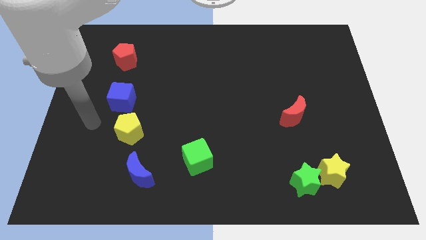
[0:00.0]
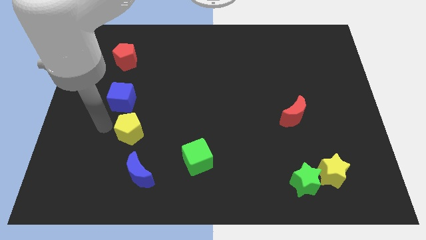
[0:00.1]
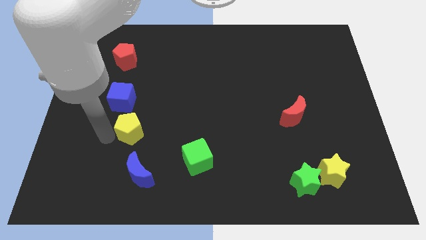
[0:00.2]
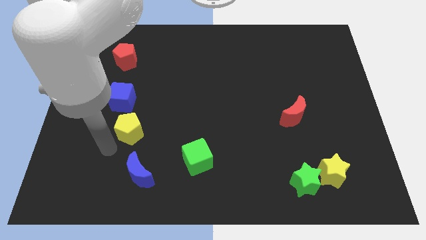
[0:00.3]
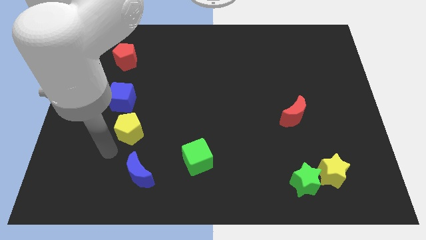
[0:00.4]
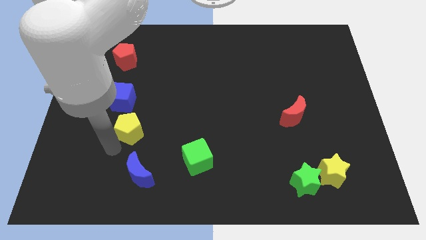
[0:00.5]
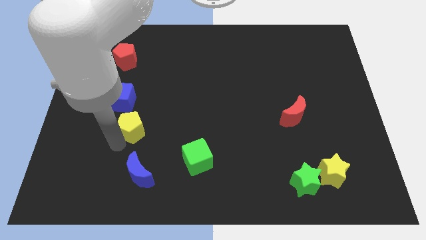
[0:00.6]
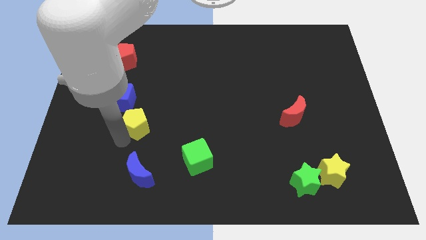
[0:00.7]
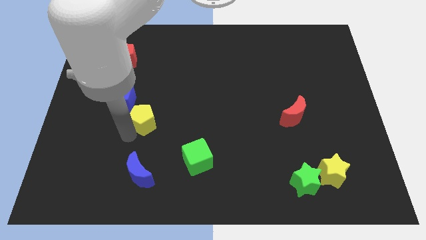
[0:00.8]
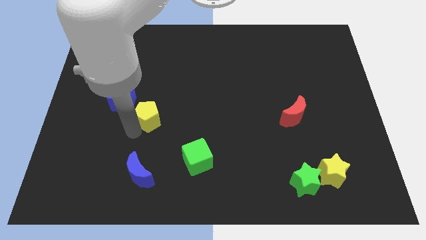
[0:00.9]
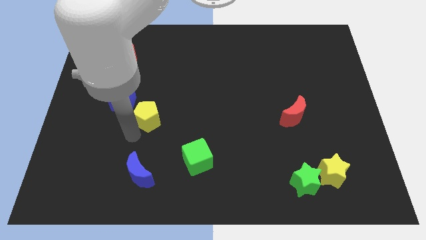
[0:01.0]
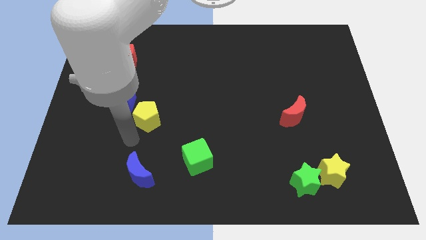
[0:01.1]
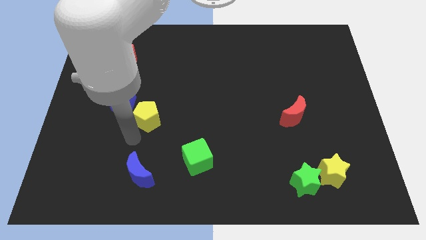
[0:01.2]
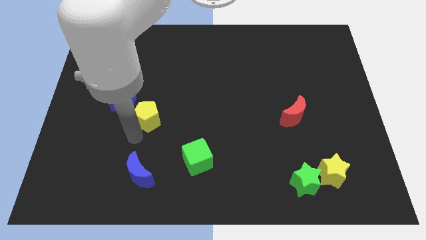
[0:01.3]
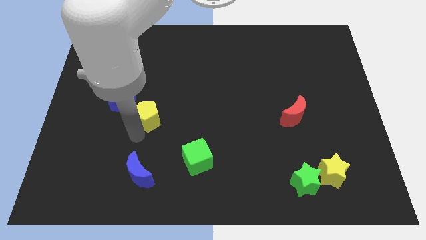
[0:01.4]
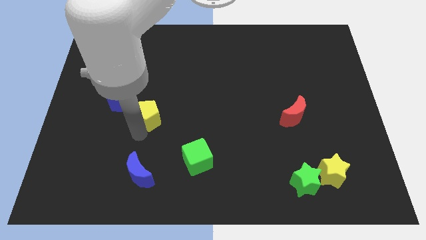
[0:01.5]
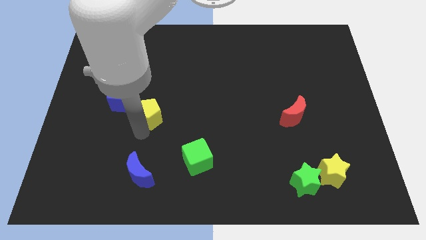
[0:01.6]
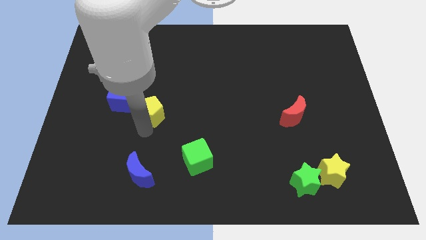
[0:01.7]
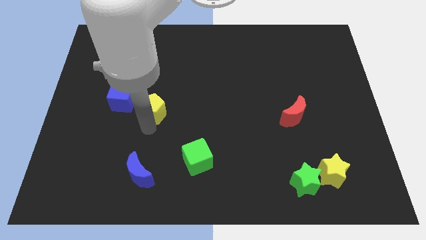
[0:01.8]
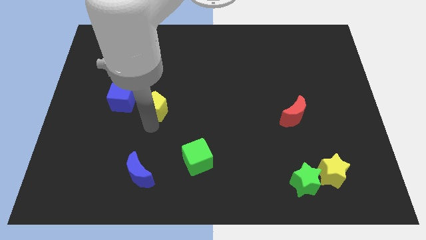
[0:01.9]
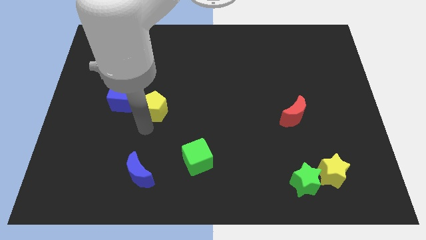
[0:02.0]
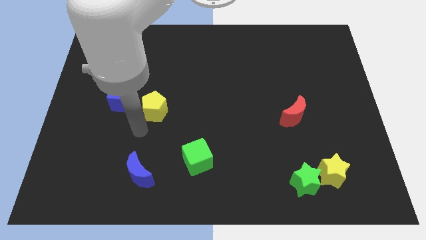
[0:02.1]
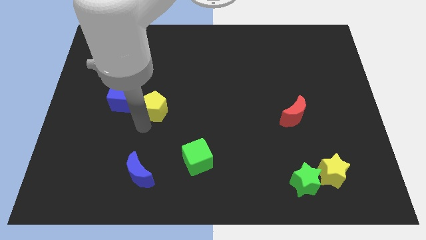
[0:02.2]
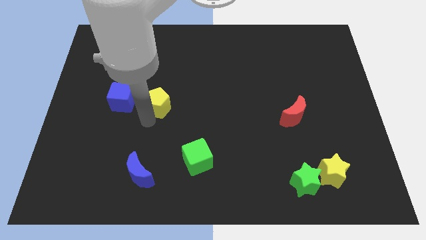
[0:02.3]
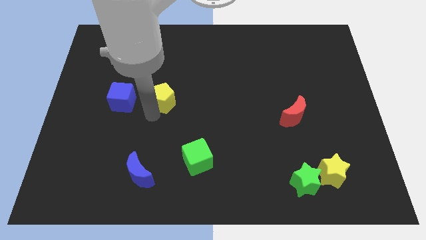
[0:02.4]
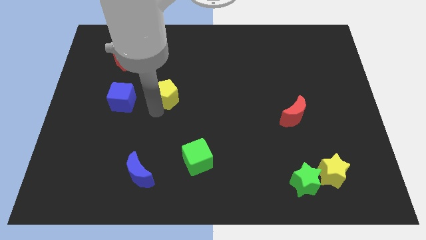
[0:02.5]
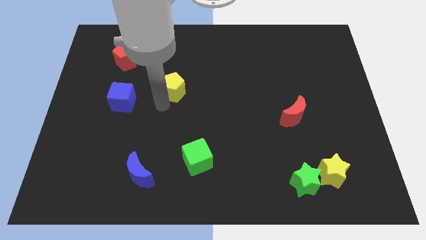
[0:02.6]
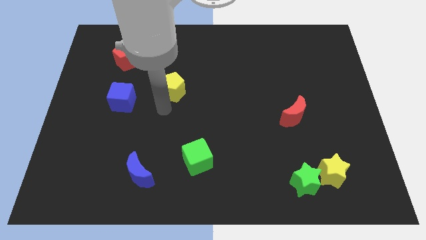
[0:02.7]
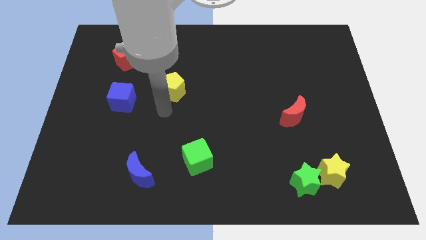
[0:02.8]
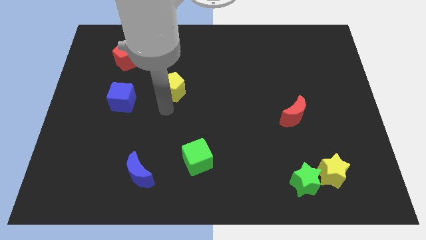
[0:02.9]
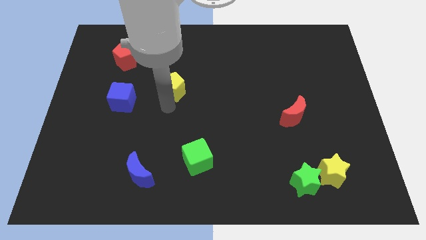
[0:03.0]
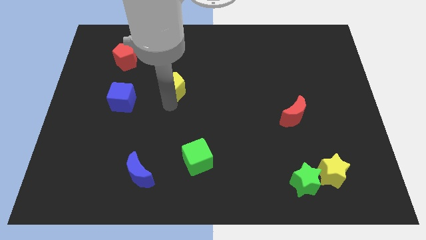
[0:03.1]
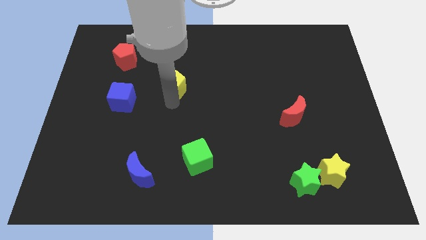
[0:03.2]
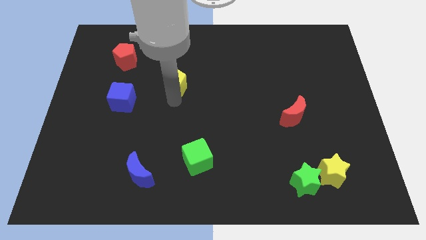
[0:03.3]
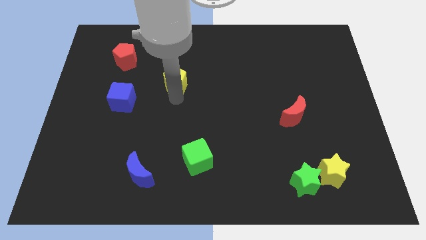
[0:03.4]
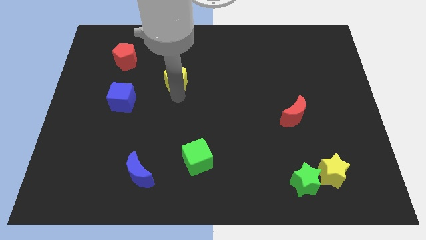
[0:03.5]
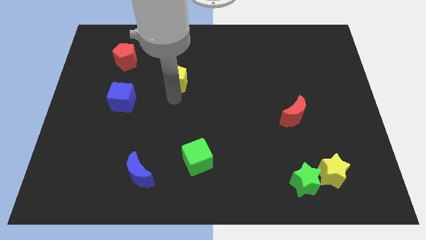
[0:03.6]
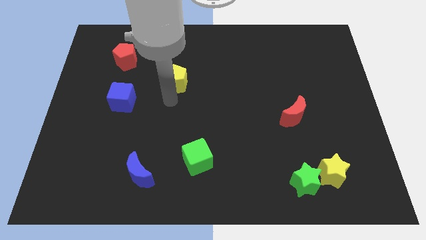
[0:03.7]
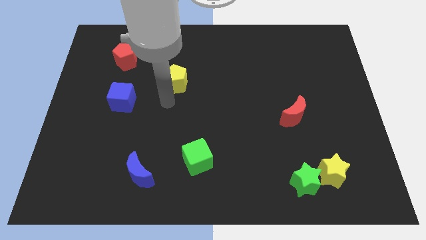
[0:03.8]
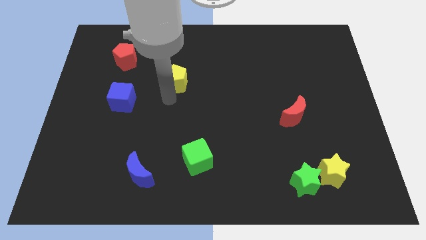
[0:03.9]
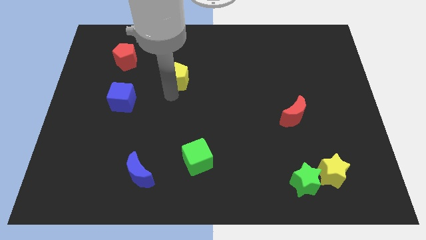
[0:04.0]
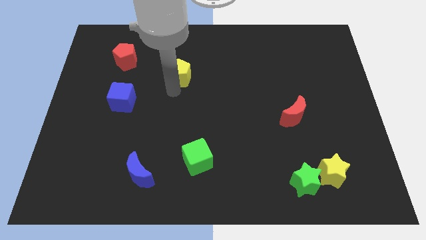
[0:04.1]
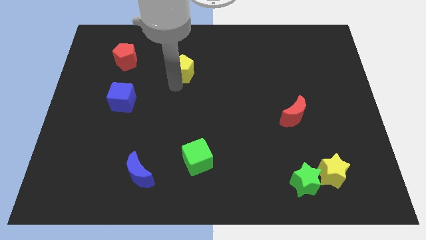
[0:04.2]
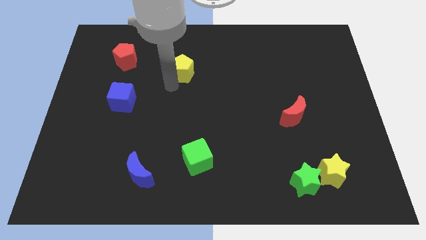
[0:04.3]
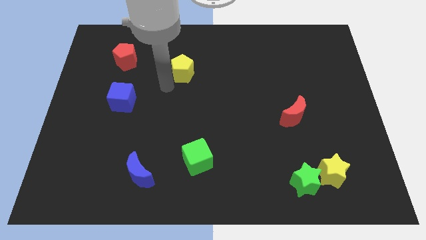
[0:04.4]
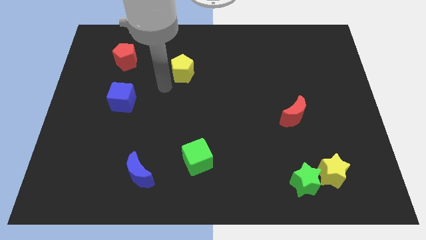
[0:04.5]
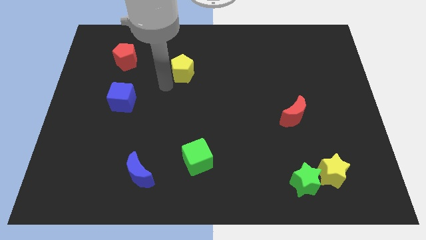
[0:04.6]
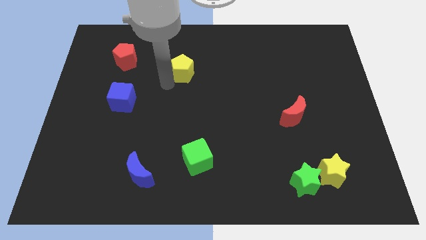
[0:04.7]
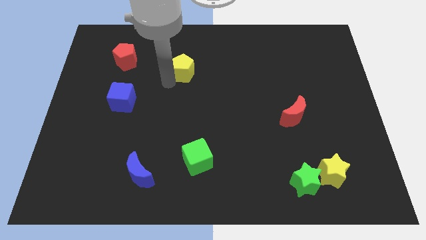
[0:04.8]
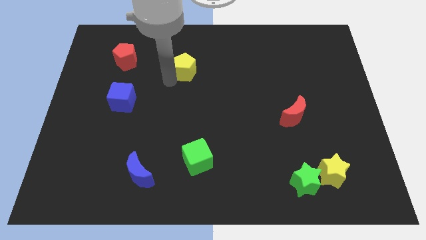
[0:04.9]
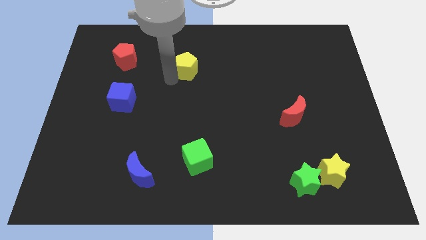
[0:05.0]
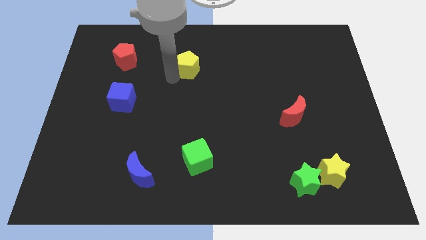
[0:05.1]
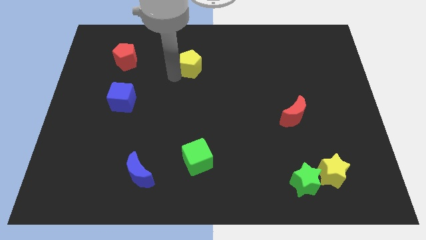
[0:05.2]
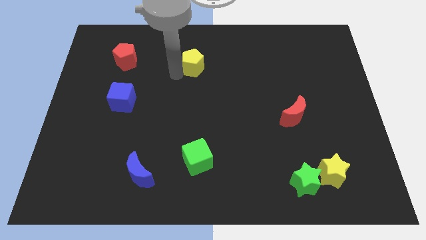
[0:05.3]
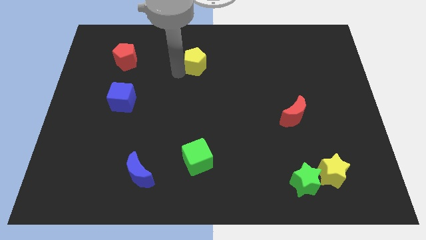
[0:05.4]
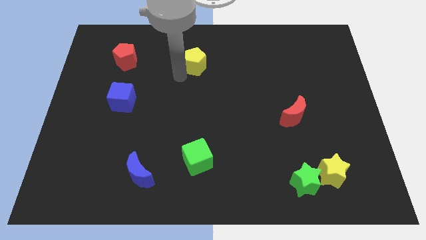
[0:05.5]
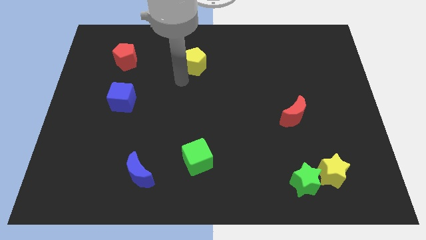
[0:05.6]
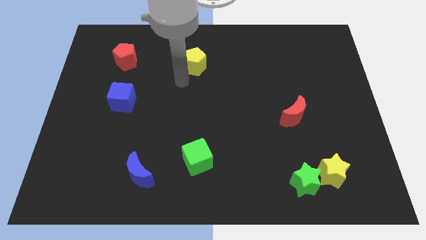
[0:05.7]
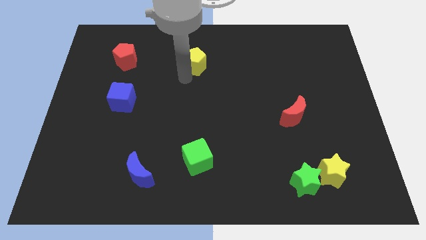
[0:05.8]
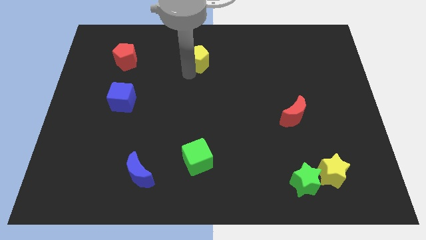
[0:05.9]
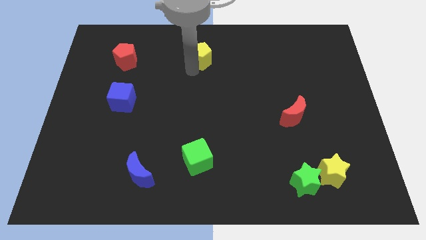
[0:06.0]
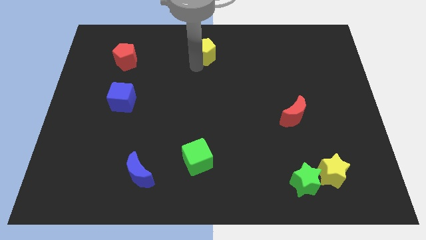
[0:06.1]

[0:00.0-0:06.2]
slide the yellow pentagon to the top side
